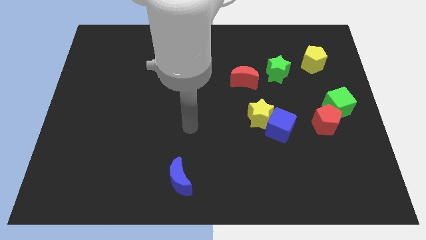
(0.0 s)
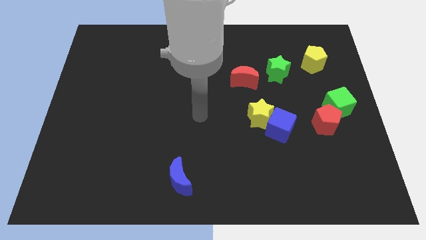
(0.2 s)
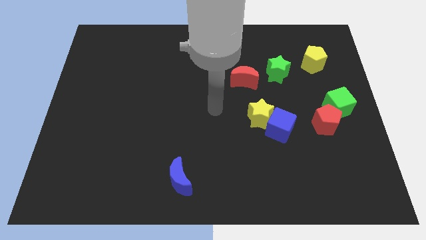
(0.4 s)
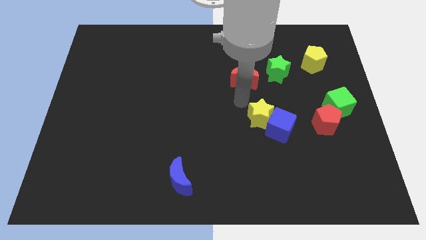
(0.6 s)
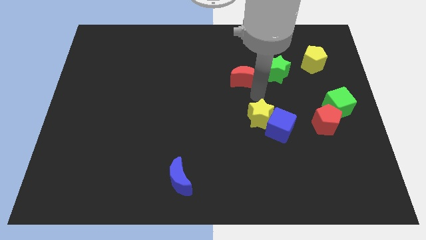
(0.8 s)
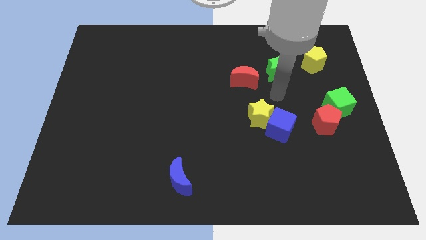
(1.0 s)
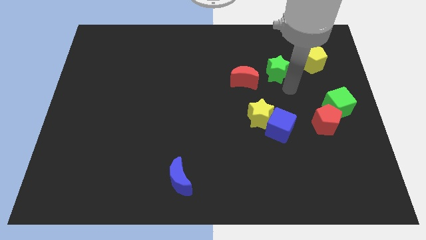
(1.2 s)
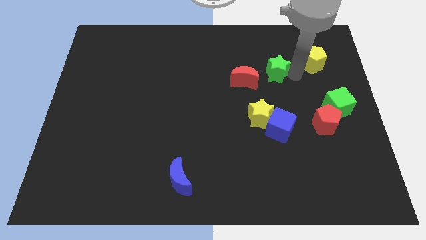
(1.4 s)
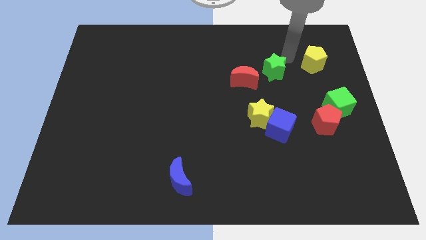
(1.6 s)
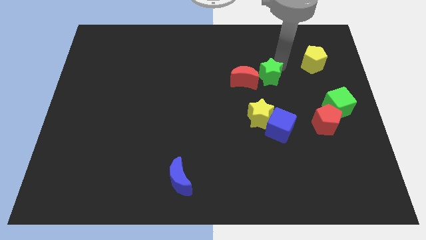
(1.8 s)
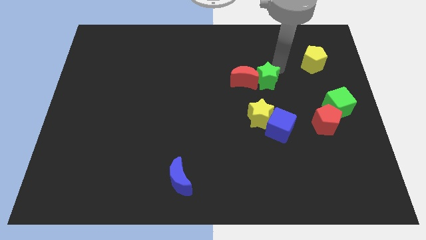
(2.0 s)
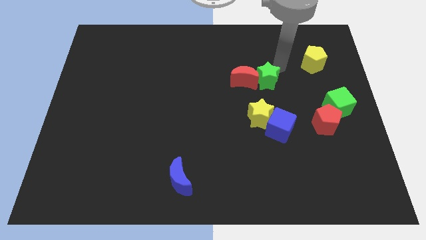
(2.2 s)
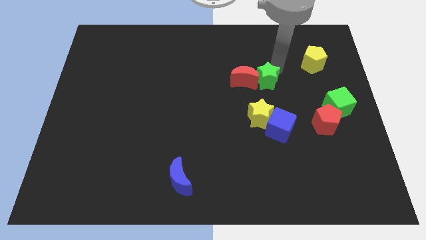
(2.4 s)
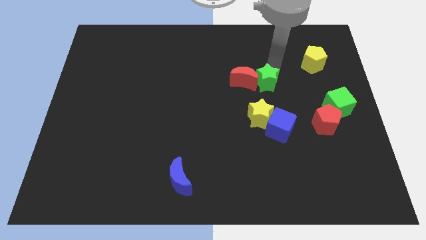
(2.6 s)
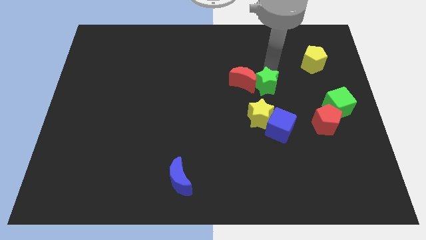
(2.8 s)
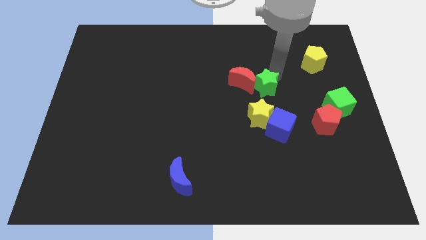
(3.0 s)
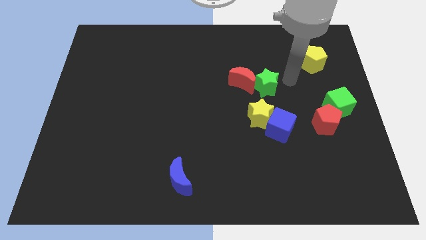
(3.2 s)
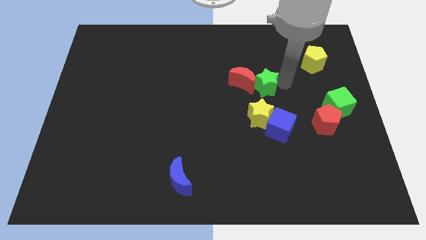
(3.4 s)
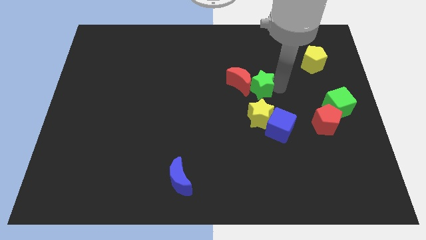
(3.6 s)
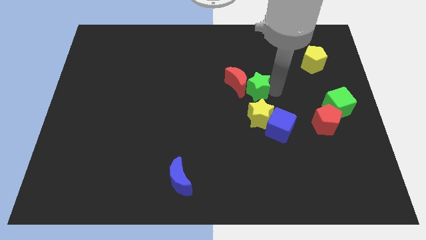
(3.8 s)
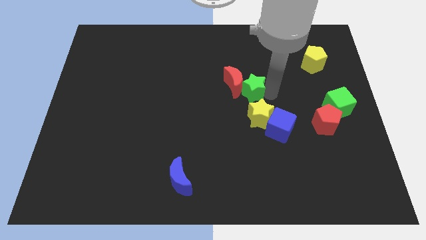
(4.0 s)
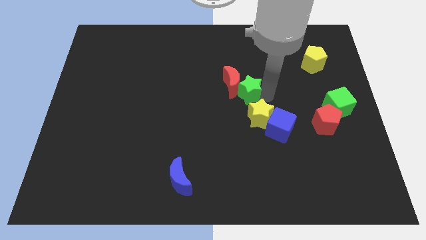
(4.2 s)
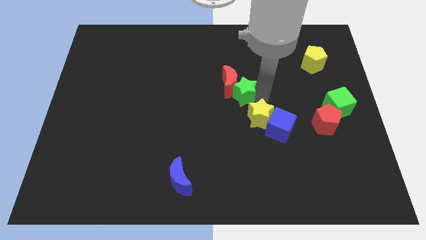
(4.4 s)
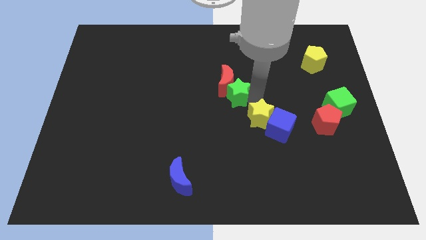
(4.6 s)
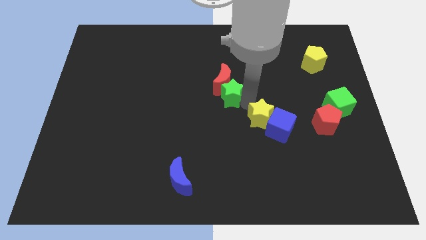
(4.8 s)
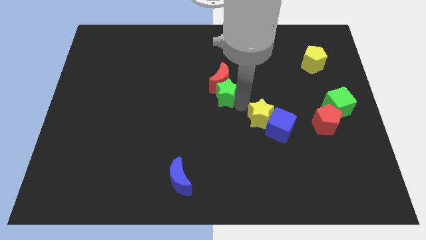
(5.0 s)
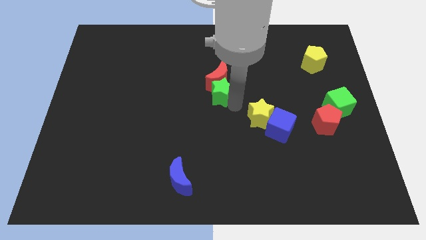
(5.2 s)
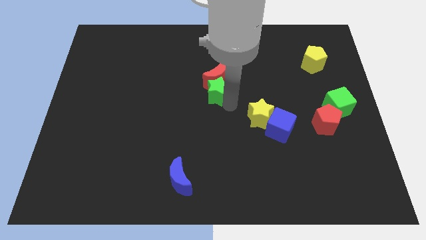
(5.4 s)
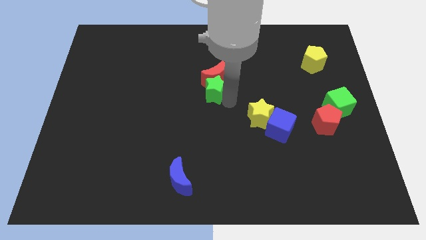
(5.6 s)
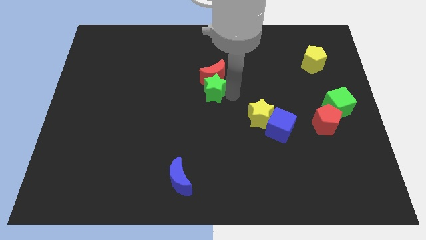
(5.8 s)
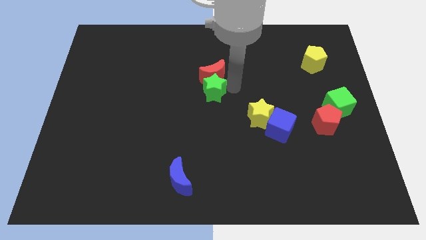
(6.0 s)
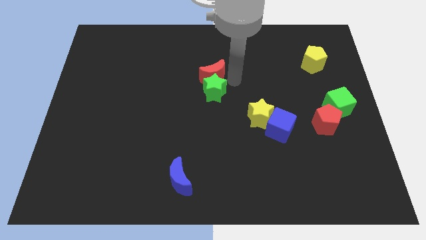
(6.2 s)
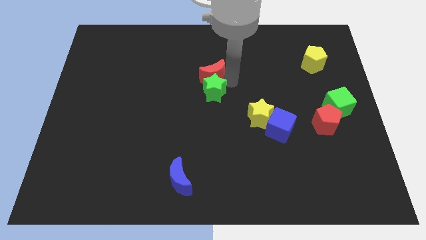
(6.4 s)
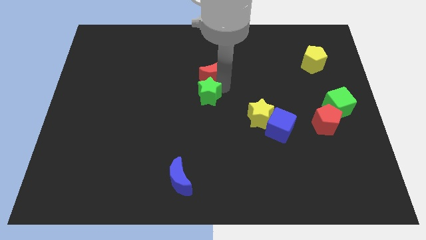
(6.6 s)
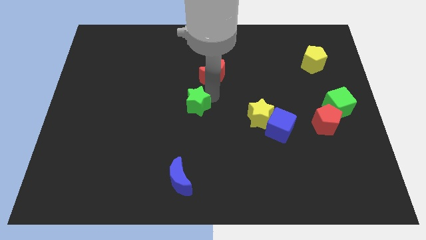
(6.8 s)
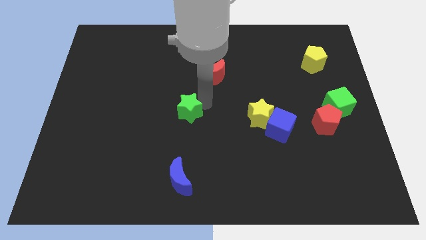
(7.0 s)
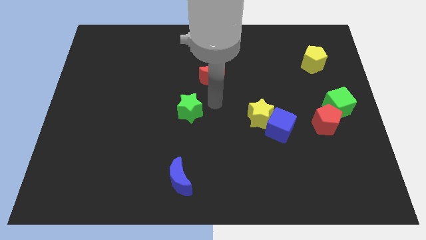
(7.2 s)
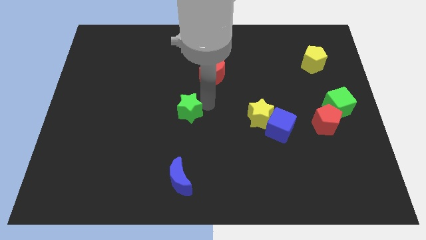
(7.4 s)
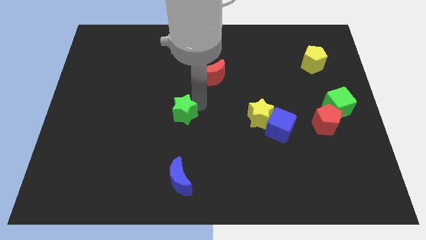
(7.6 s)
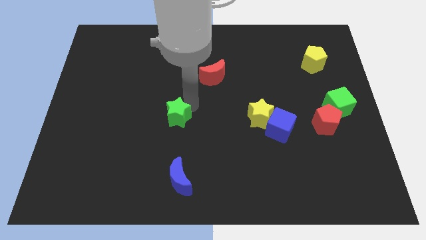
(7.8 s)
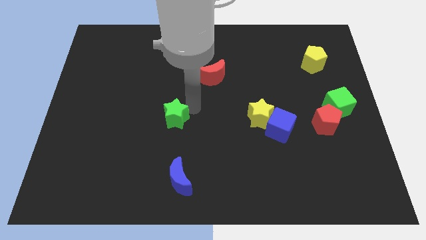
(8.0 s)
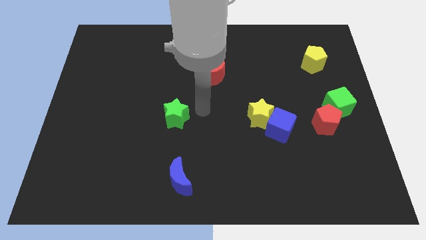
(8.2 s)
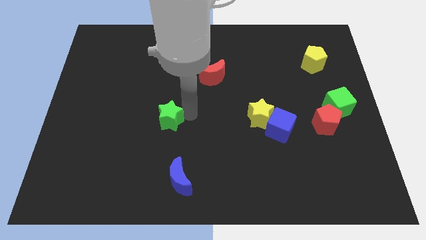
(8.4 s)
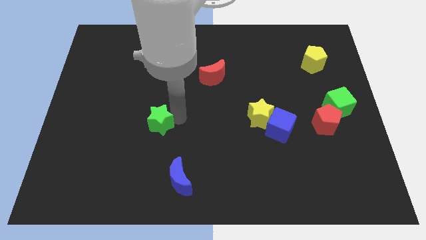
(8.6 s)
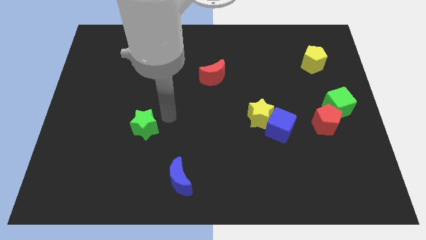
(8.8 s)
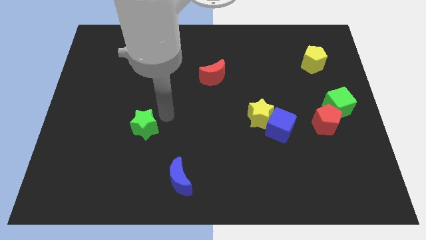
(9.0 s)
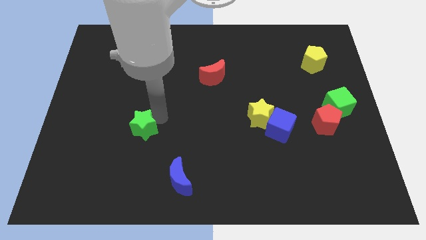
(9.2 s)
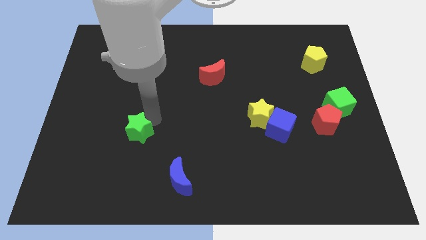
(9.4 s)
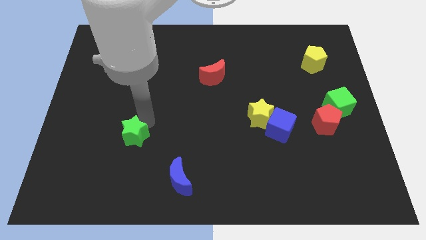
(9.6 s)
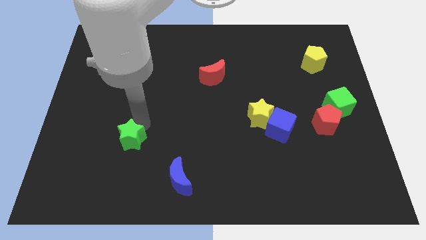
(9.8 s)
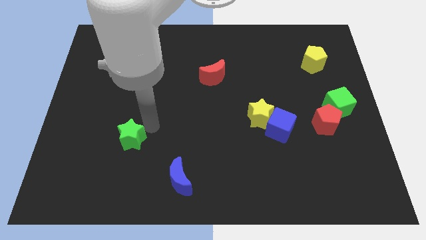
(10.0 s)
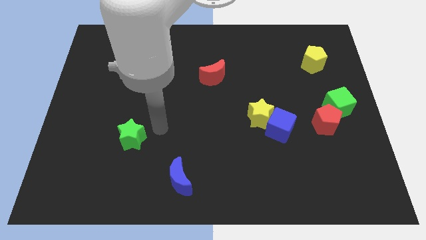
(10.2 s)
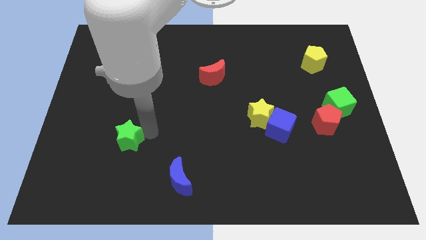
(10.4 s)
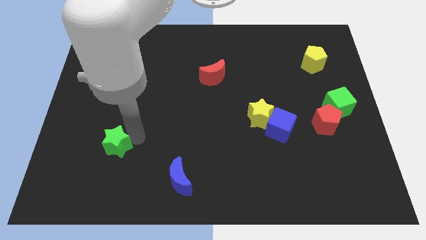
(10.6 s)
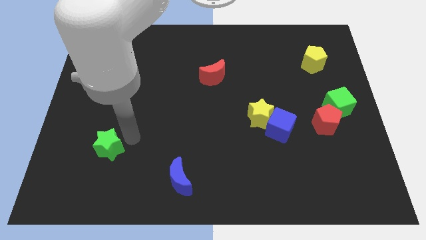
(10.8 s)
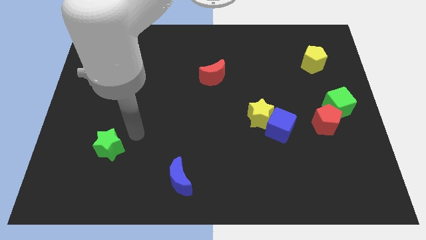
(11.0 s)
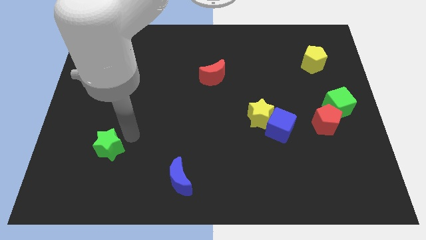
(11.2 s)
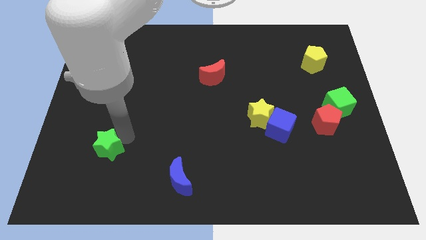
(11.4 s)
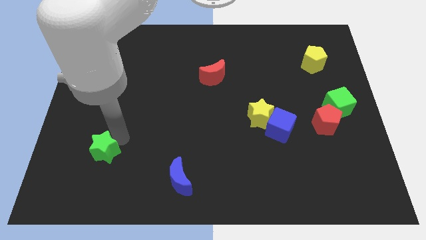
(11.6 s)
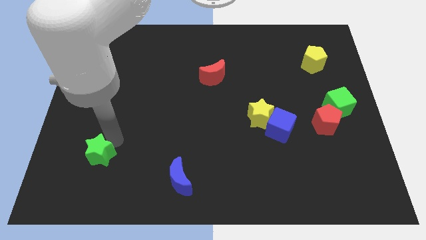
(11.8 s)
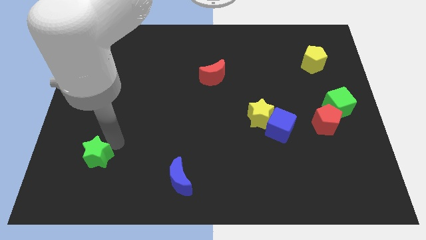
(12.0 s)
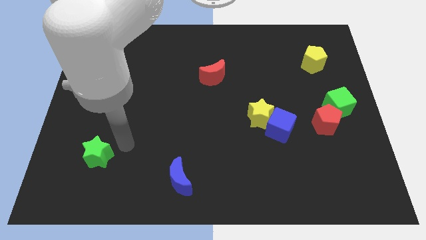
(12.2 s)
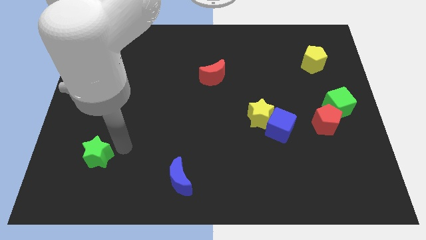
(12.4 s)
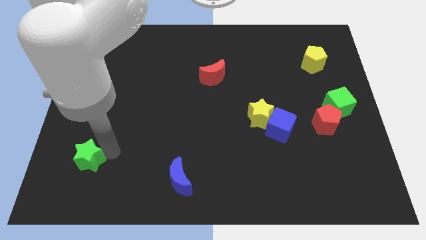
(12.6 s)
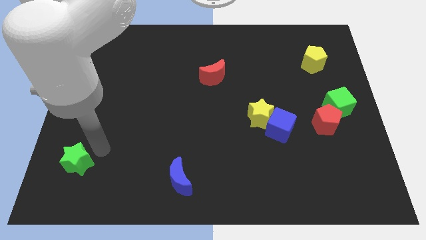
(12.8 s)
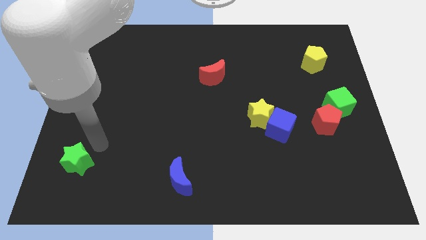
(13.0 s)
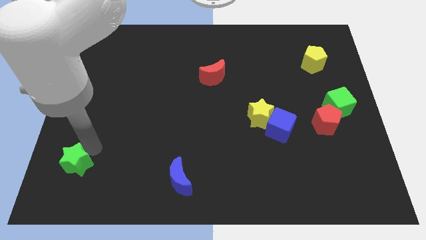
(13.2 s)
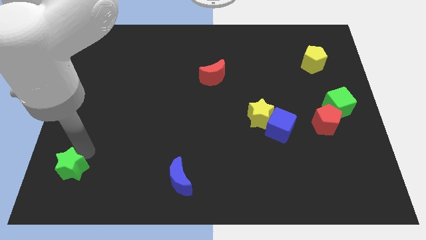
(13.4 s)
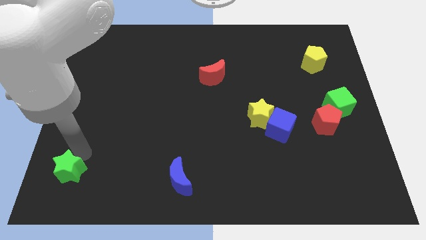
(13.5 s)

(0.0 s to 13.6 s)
put the green star to the bottom left corner

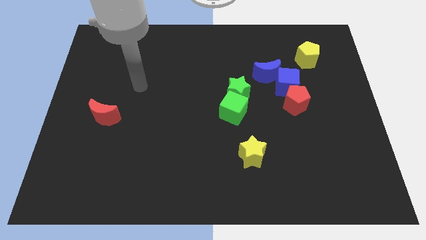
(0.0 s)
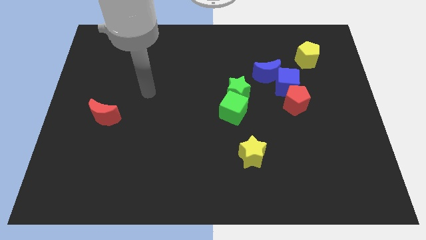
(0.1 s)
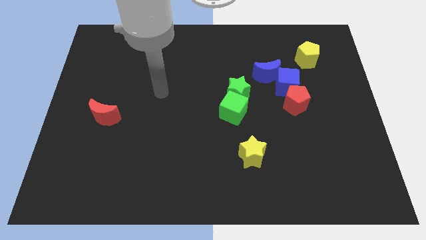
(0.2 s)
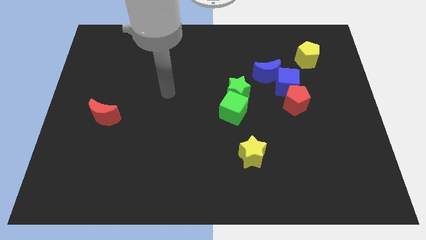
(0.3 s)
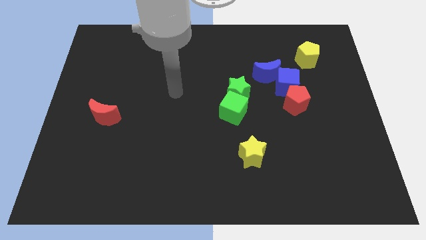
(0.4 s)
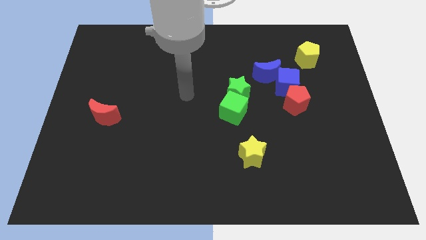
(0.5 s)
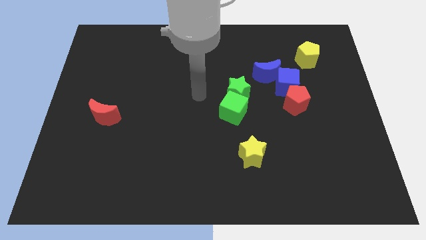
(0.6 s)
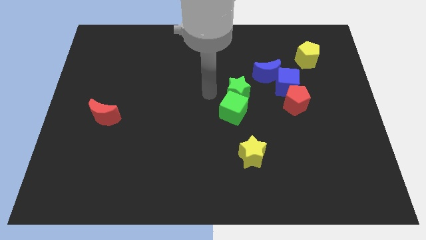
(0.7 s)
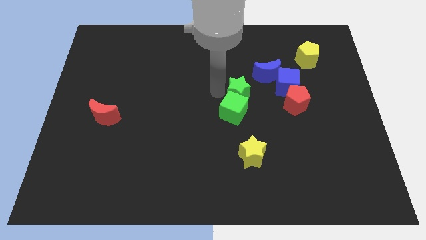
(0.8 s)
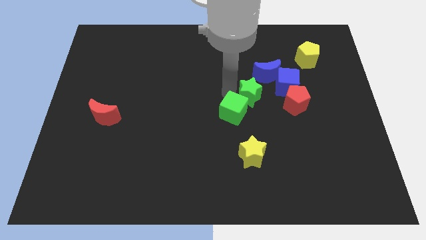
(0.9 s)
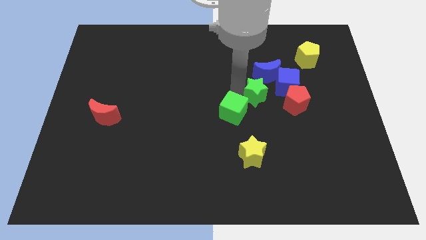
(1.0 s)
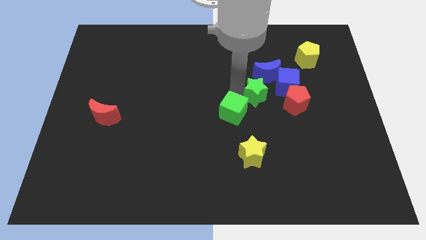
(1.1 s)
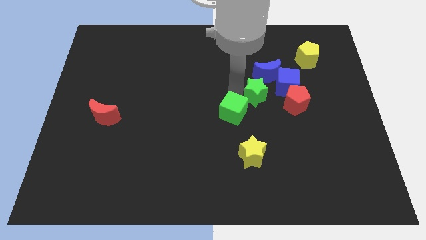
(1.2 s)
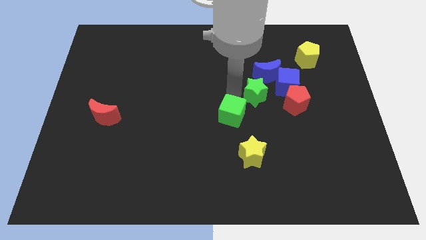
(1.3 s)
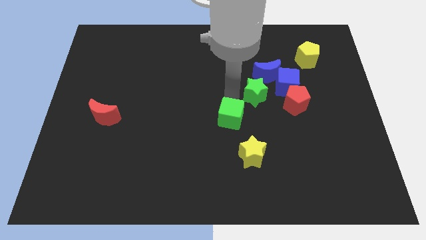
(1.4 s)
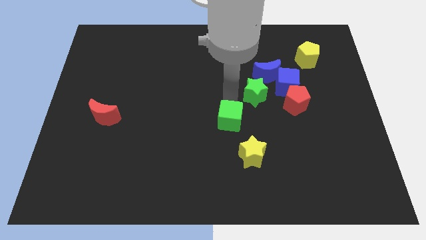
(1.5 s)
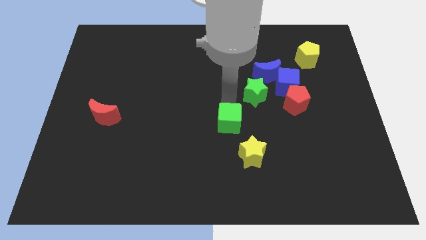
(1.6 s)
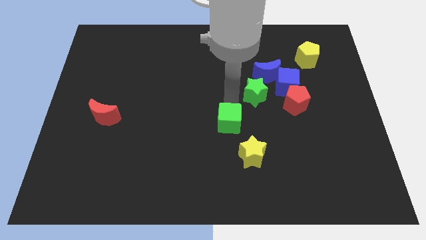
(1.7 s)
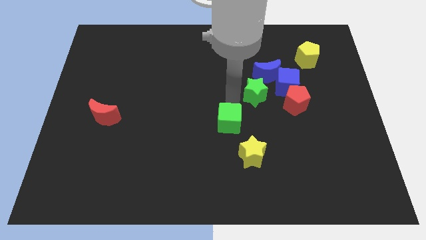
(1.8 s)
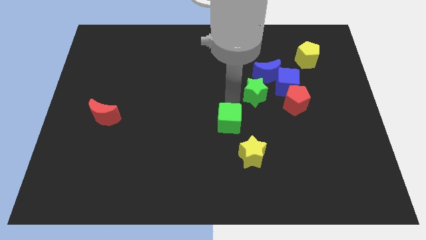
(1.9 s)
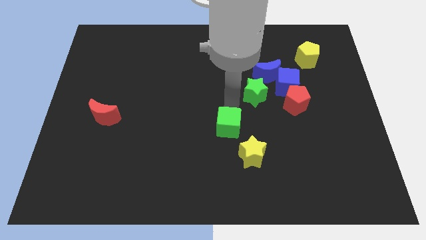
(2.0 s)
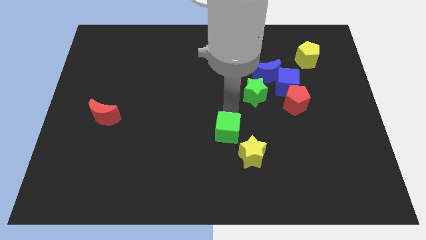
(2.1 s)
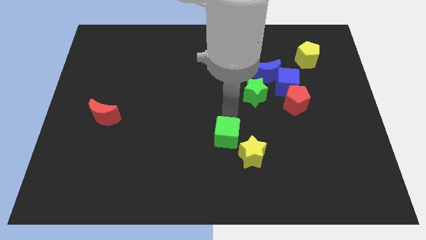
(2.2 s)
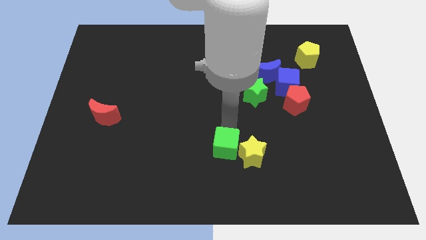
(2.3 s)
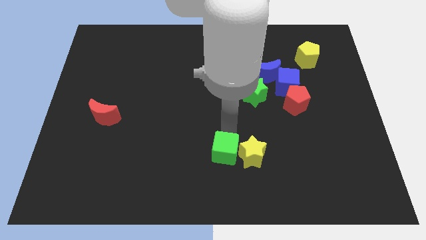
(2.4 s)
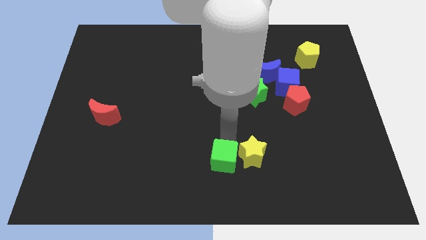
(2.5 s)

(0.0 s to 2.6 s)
move the green cube to the bottom
